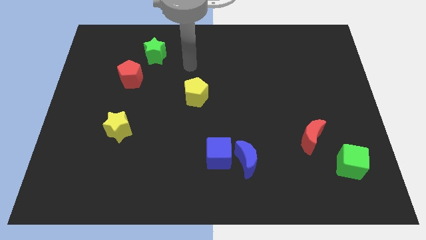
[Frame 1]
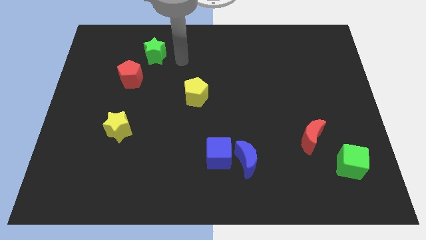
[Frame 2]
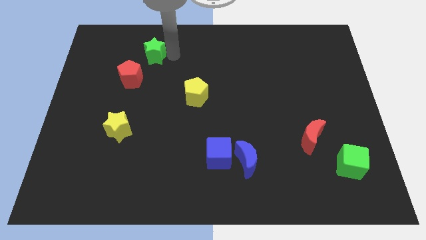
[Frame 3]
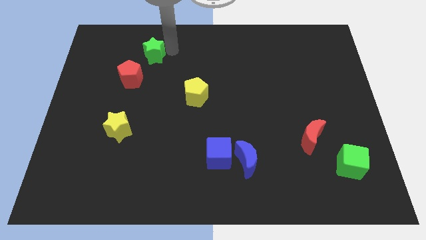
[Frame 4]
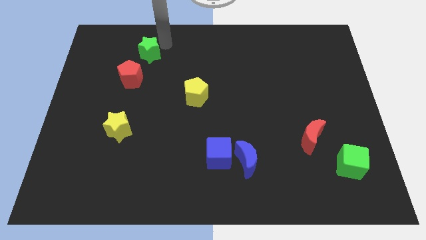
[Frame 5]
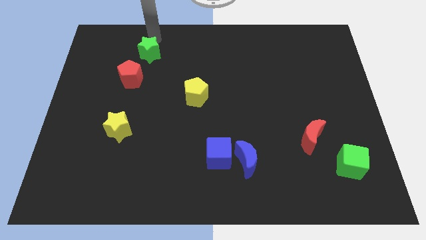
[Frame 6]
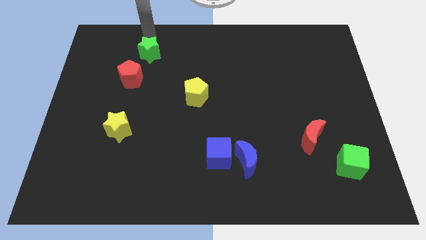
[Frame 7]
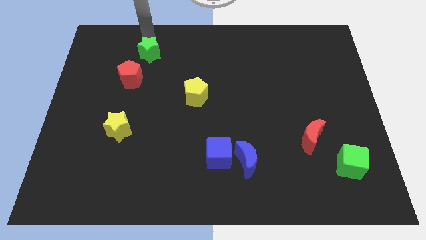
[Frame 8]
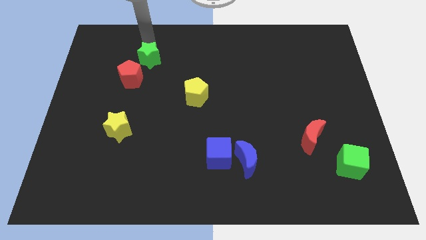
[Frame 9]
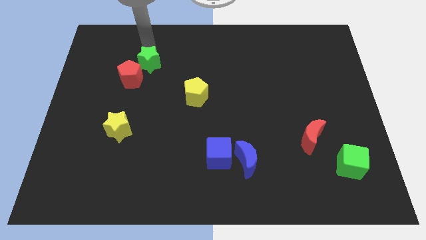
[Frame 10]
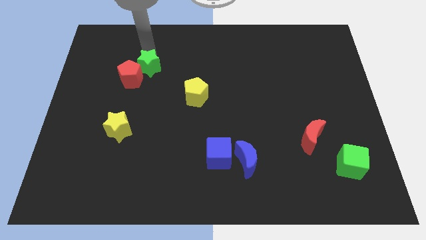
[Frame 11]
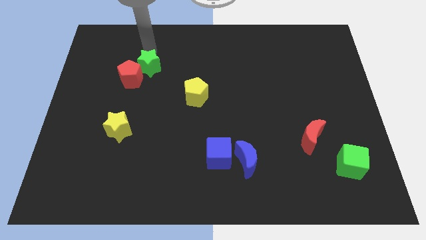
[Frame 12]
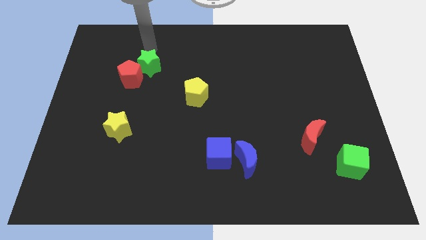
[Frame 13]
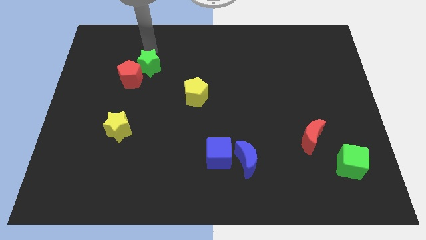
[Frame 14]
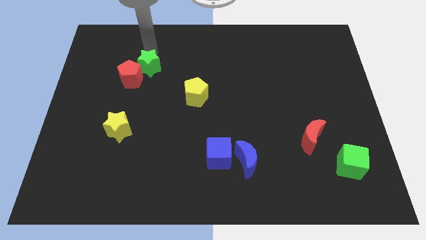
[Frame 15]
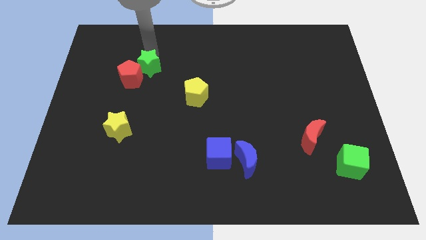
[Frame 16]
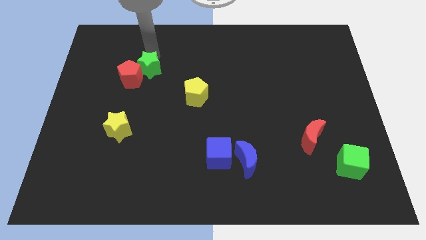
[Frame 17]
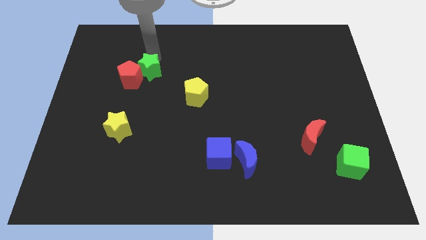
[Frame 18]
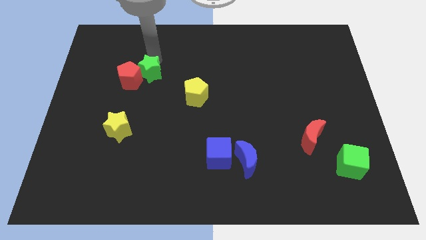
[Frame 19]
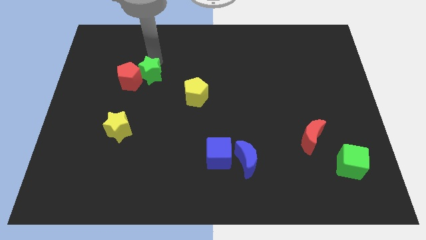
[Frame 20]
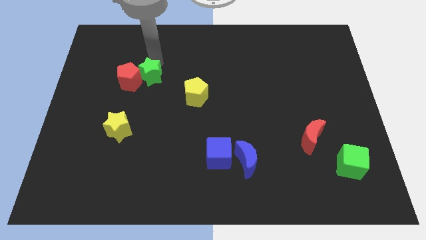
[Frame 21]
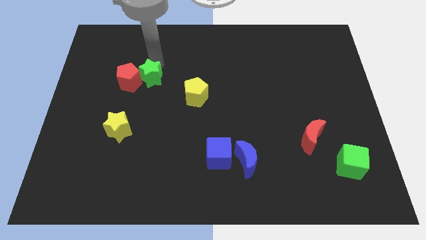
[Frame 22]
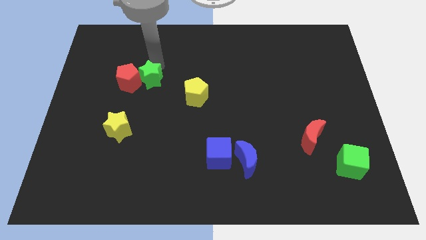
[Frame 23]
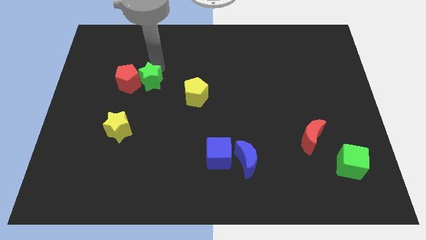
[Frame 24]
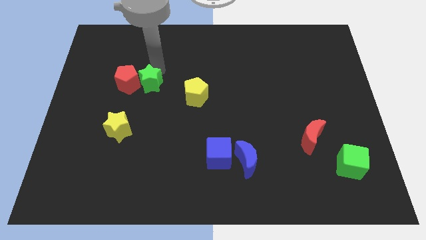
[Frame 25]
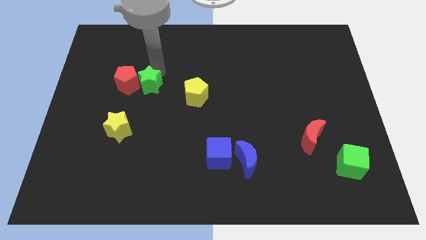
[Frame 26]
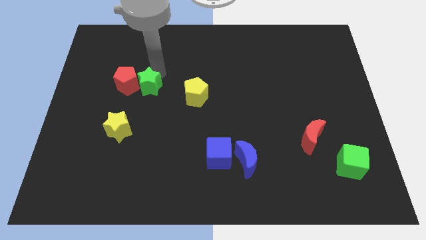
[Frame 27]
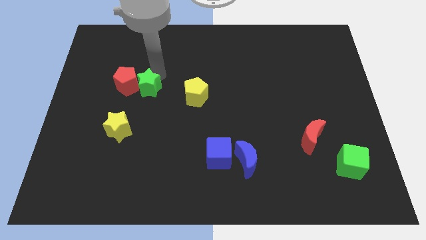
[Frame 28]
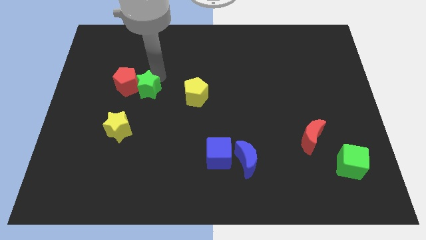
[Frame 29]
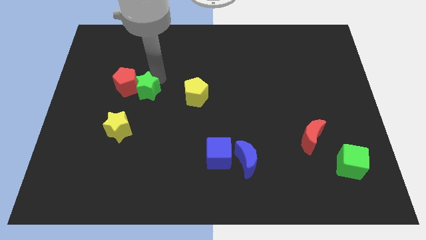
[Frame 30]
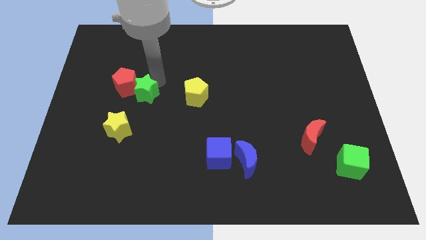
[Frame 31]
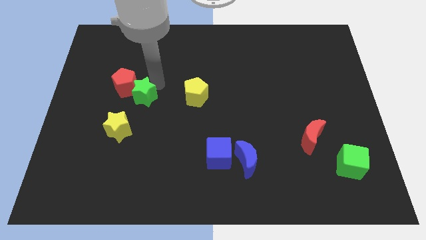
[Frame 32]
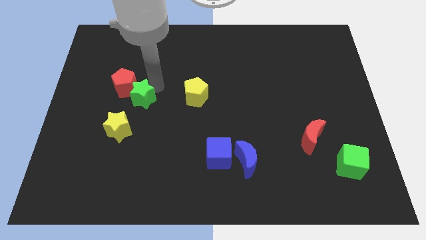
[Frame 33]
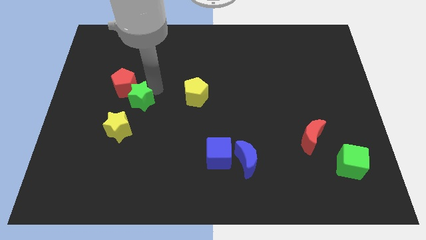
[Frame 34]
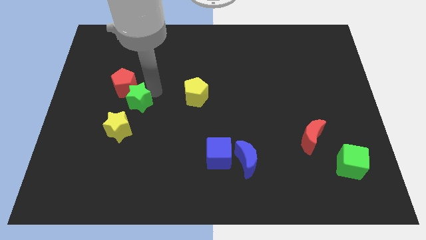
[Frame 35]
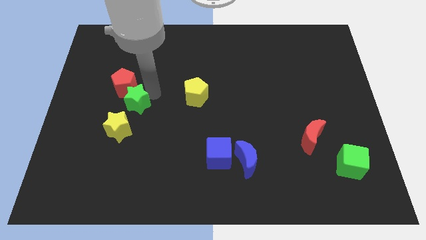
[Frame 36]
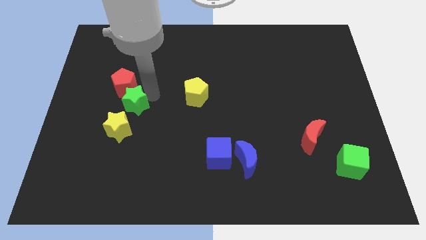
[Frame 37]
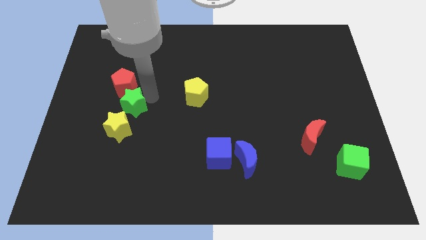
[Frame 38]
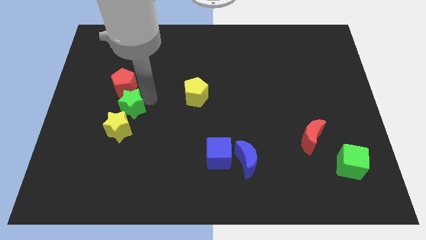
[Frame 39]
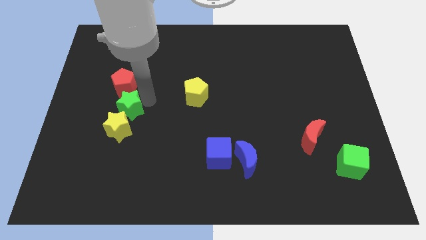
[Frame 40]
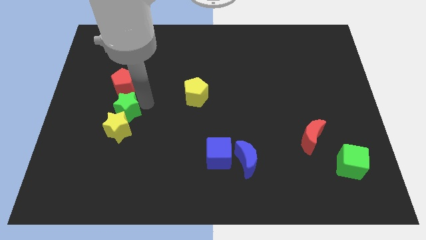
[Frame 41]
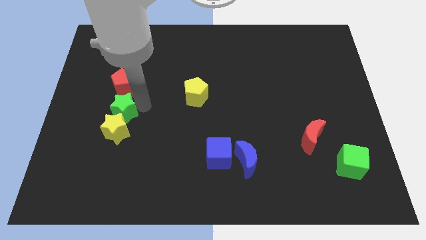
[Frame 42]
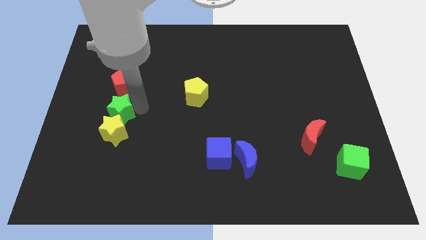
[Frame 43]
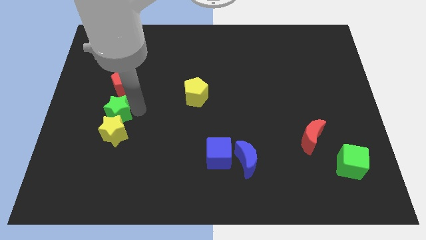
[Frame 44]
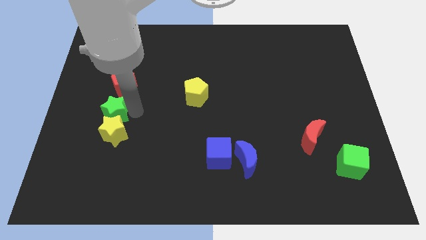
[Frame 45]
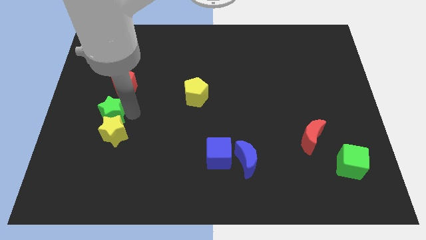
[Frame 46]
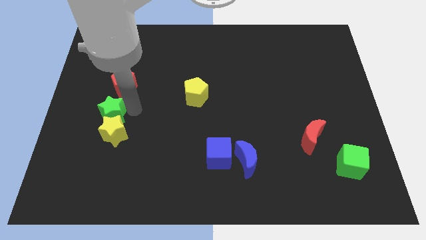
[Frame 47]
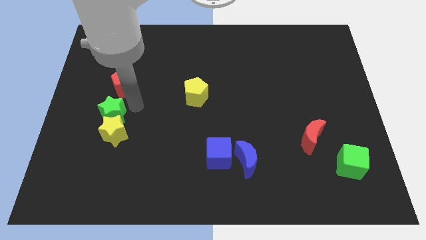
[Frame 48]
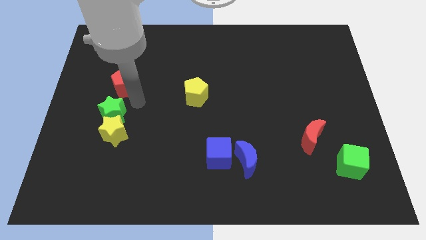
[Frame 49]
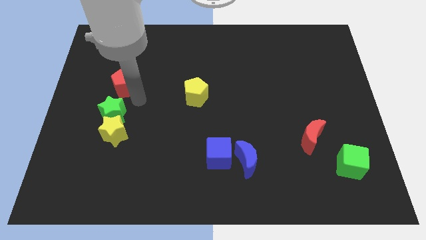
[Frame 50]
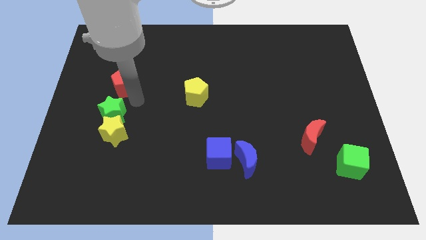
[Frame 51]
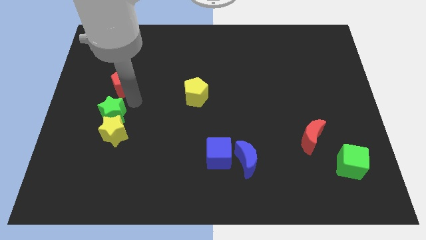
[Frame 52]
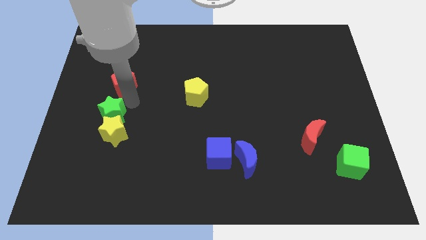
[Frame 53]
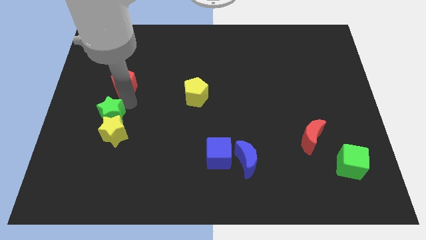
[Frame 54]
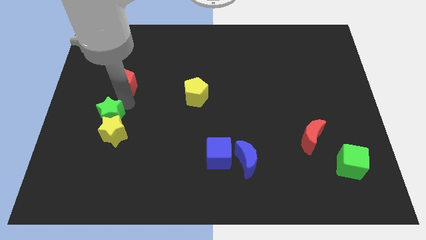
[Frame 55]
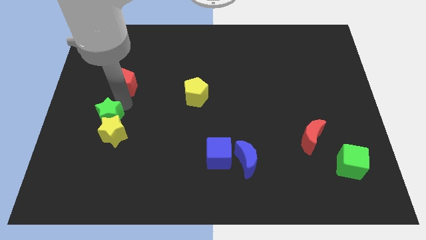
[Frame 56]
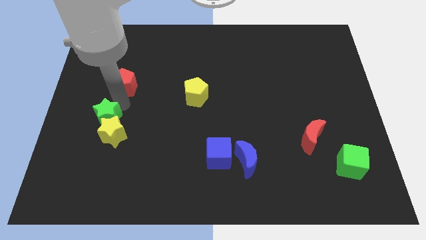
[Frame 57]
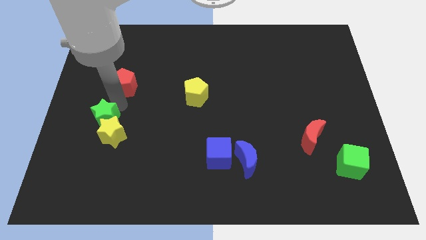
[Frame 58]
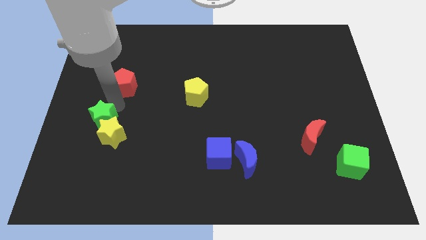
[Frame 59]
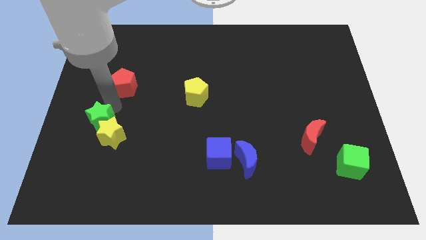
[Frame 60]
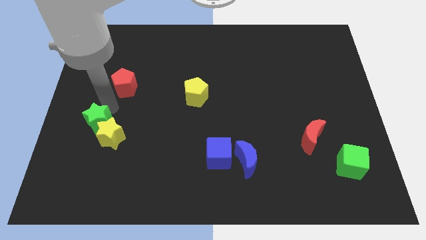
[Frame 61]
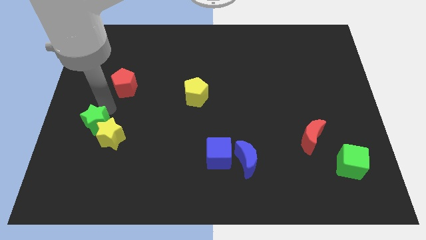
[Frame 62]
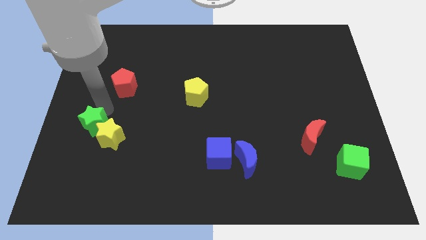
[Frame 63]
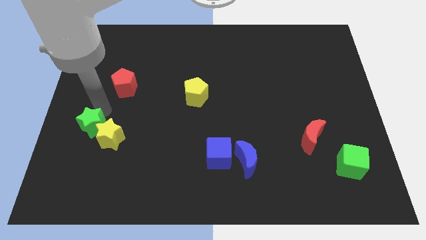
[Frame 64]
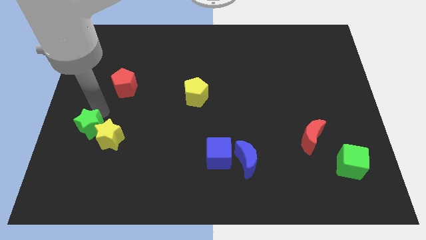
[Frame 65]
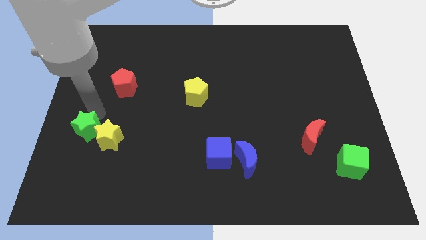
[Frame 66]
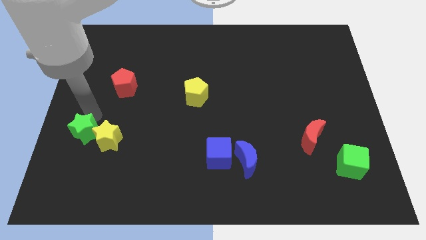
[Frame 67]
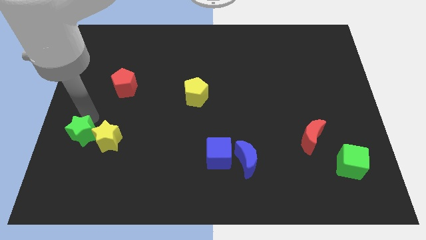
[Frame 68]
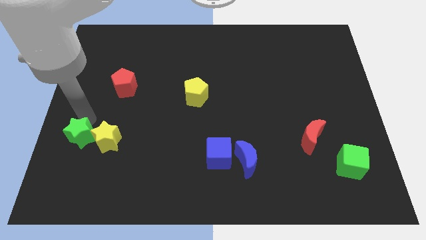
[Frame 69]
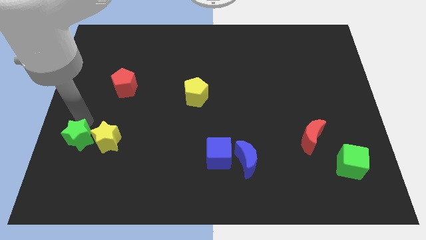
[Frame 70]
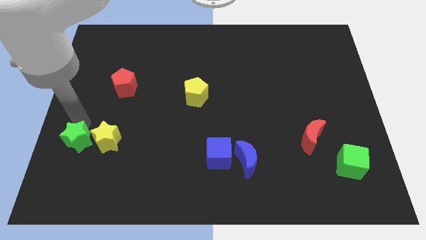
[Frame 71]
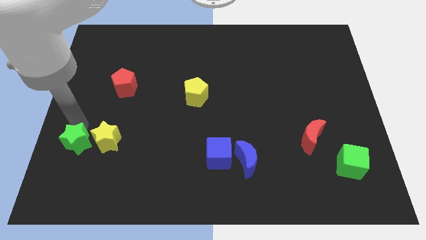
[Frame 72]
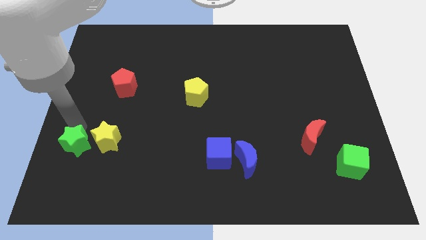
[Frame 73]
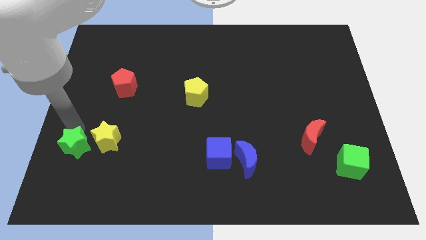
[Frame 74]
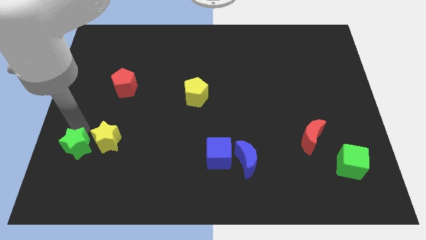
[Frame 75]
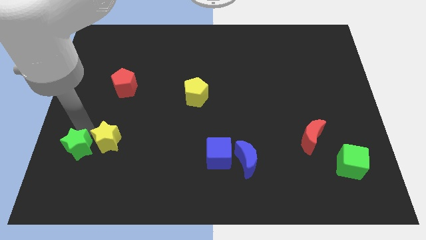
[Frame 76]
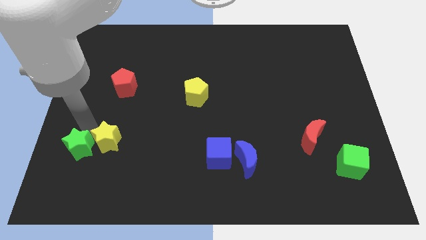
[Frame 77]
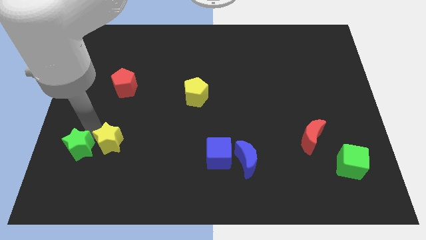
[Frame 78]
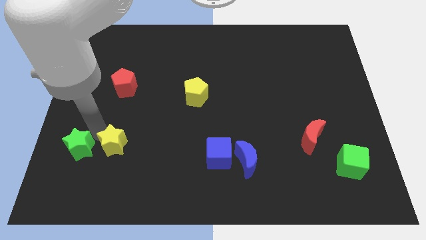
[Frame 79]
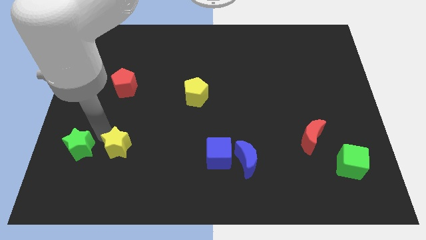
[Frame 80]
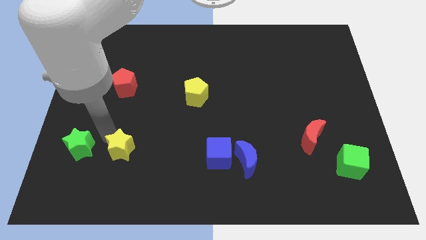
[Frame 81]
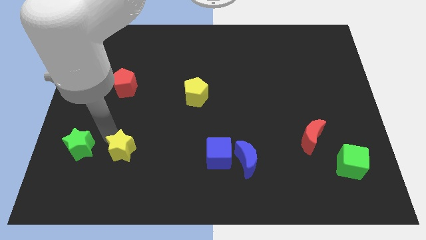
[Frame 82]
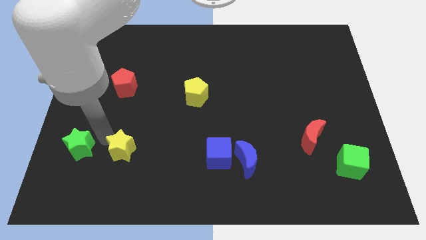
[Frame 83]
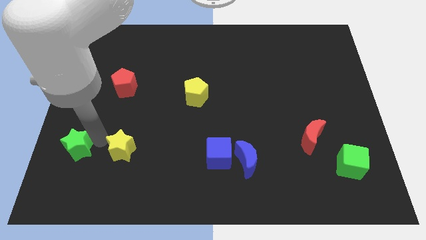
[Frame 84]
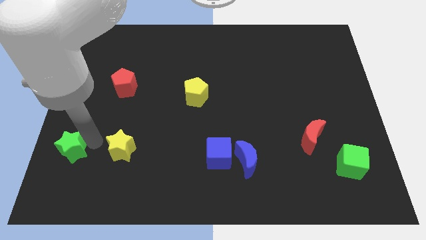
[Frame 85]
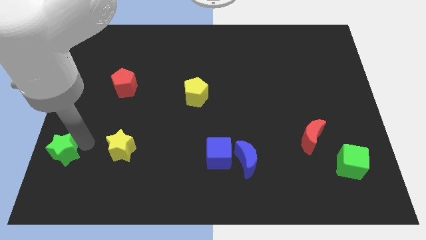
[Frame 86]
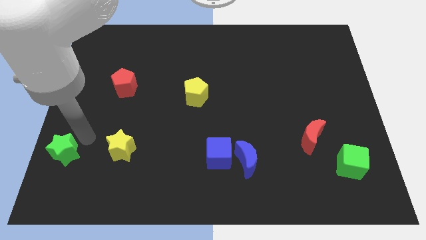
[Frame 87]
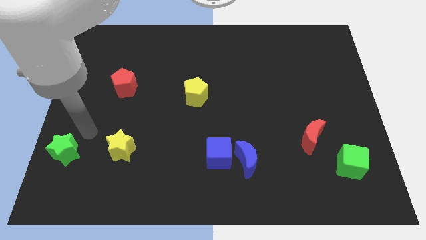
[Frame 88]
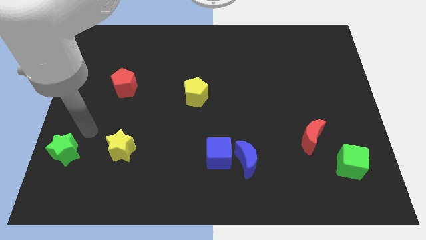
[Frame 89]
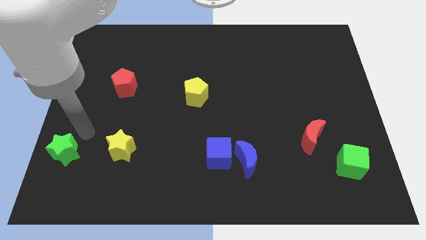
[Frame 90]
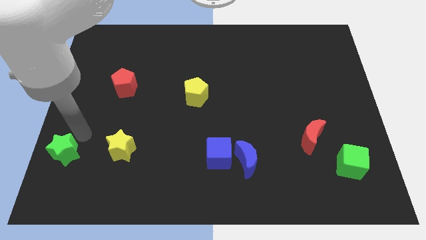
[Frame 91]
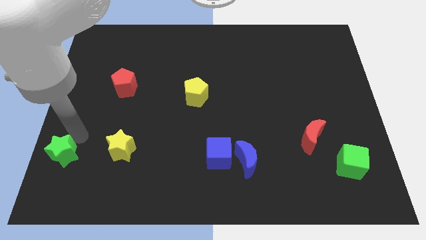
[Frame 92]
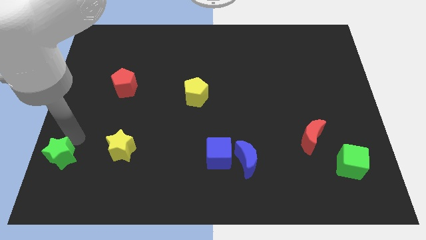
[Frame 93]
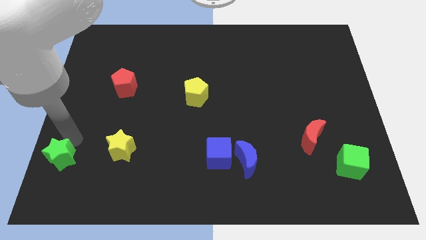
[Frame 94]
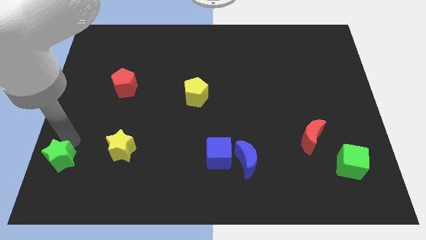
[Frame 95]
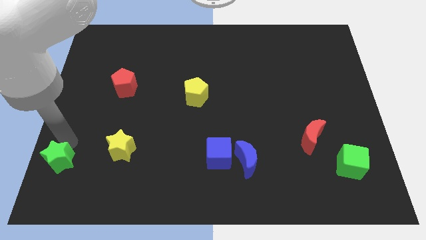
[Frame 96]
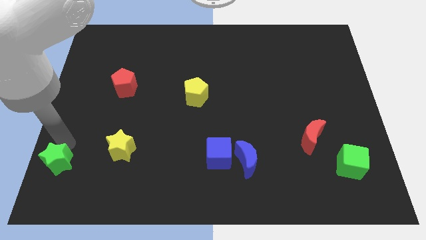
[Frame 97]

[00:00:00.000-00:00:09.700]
move the green star to the bottom left corner
